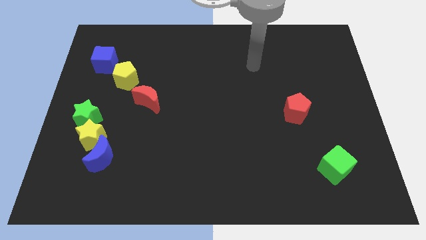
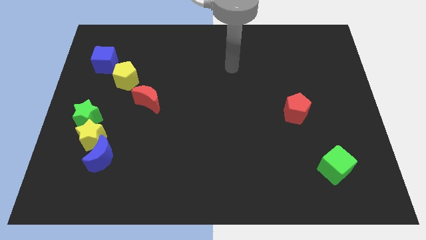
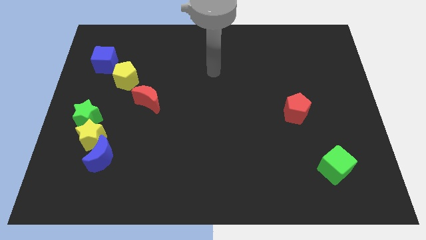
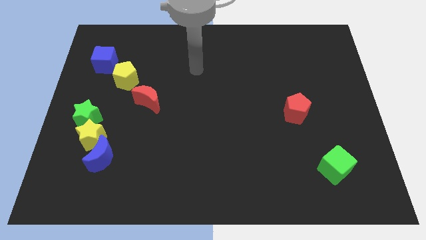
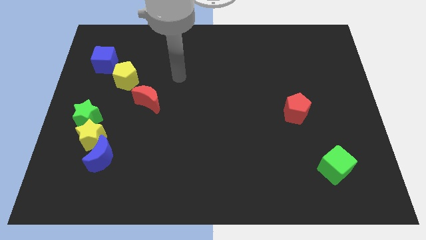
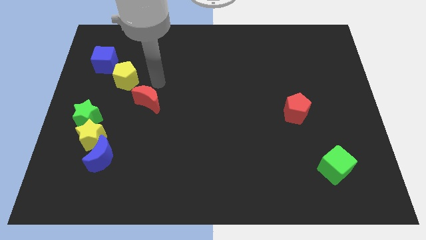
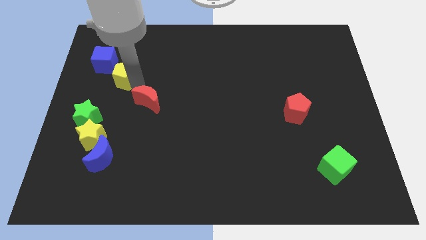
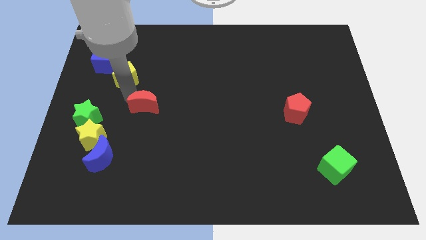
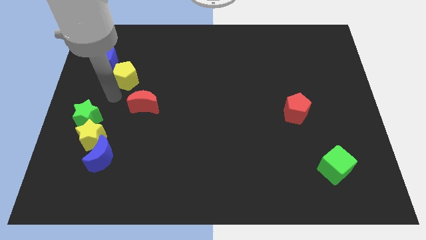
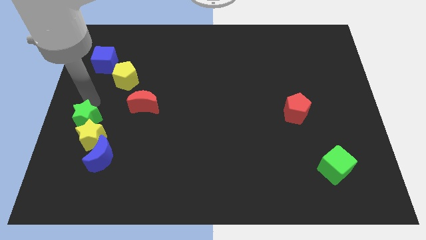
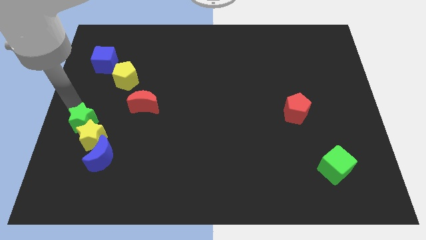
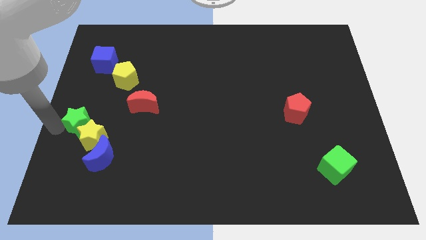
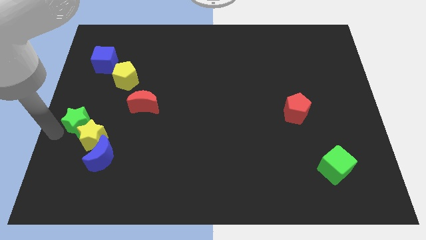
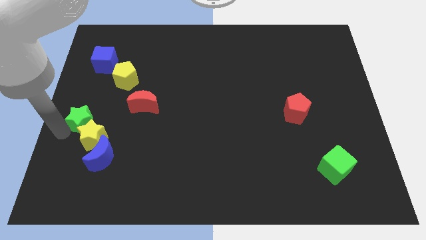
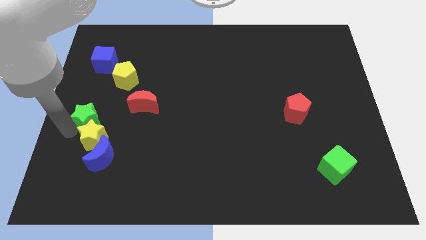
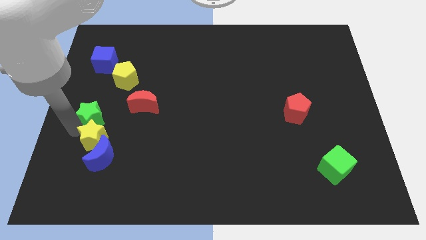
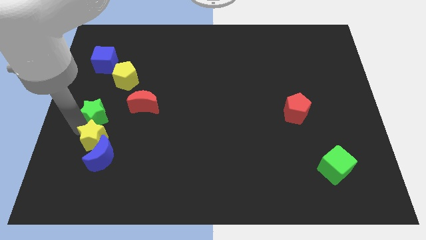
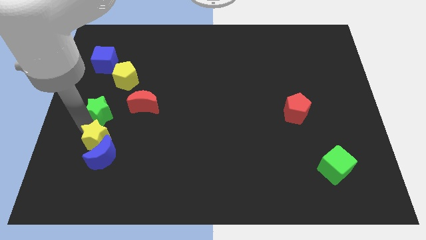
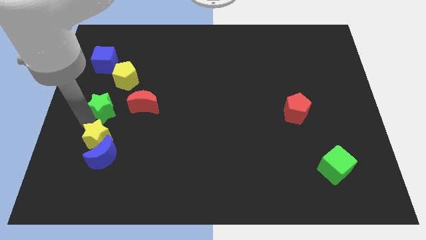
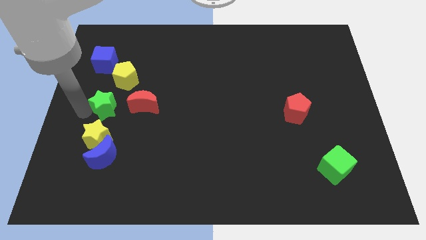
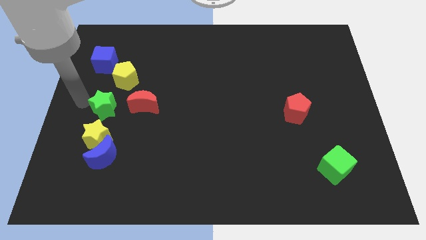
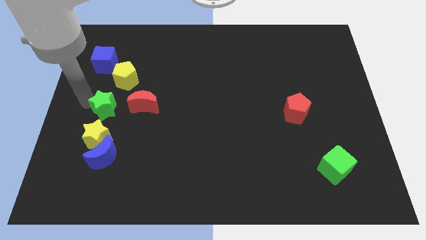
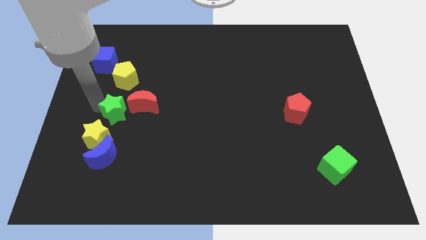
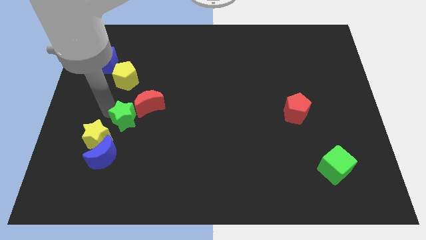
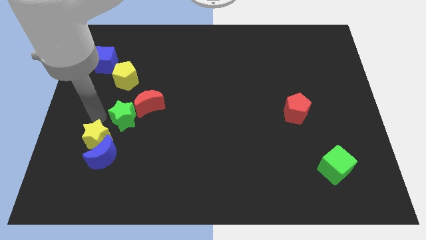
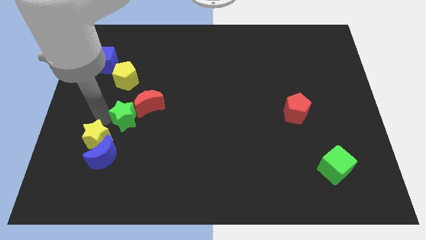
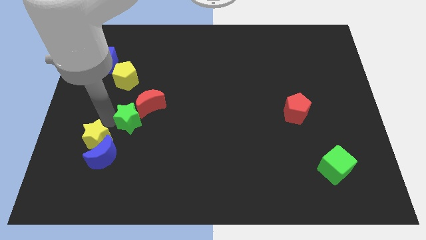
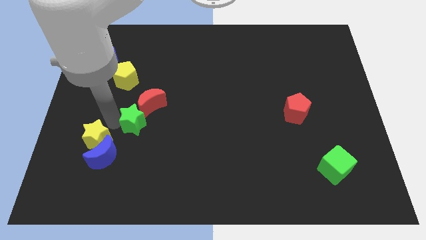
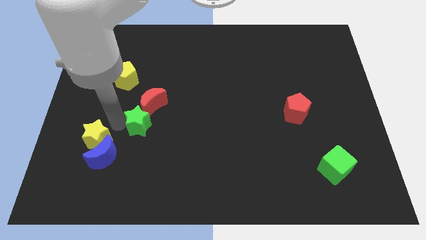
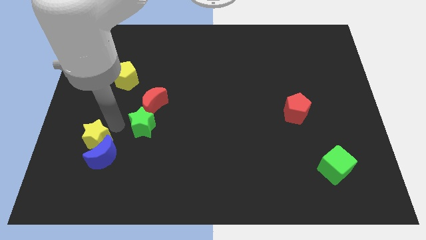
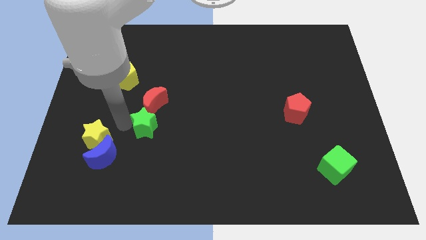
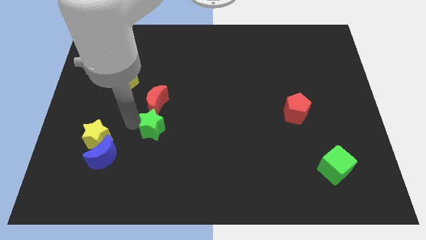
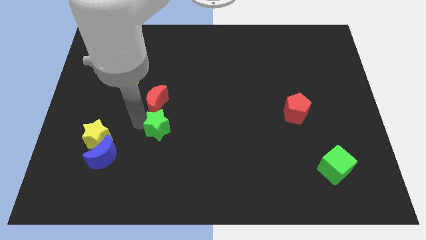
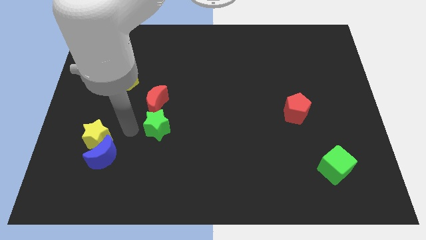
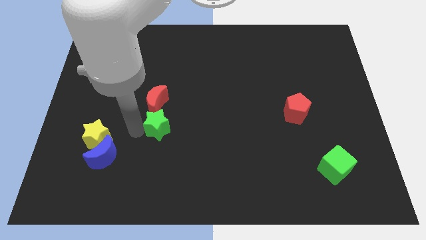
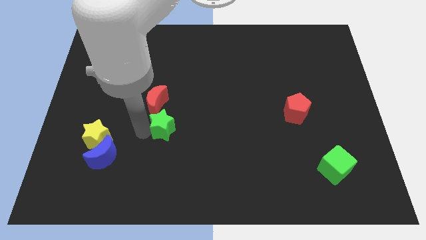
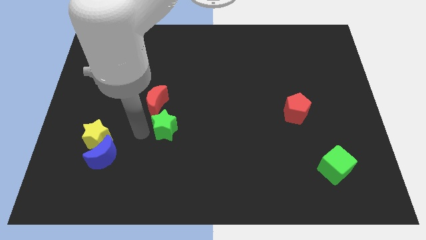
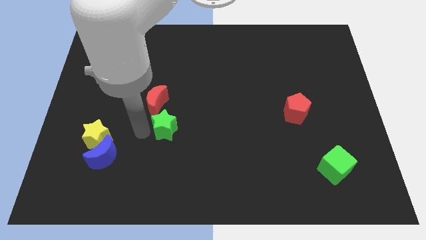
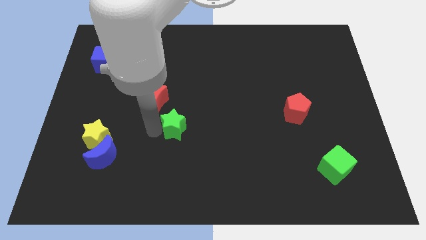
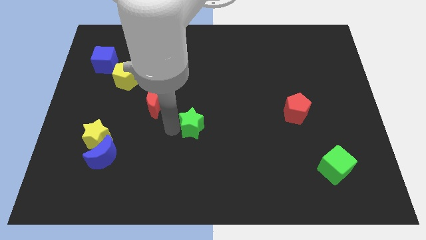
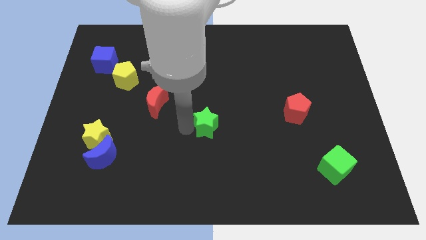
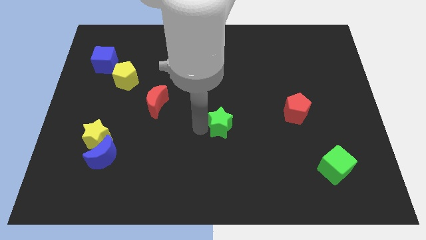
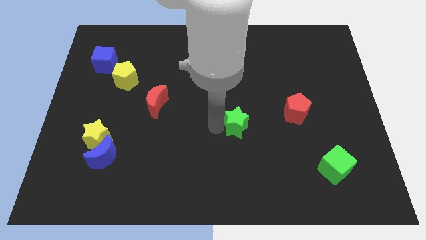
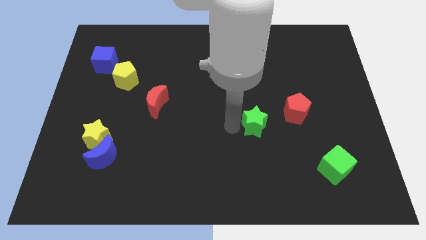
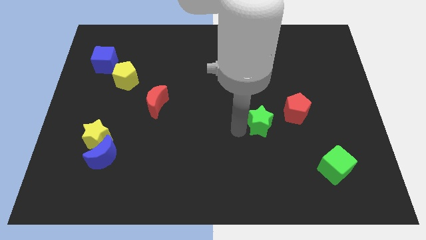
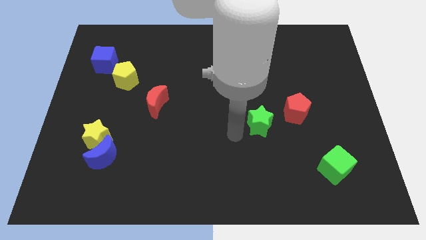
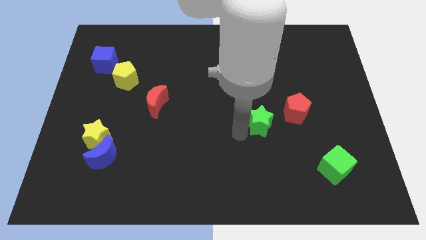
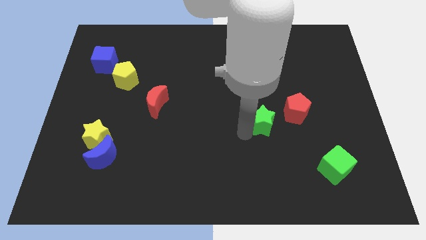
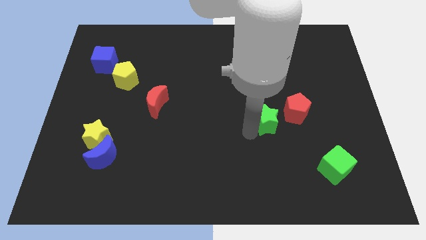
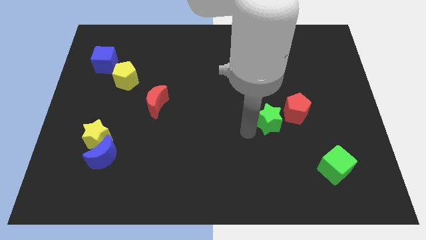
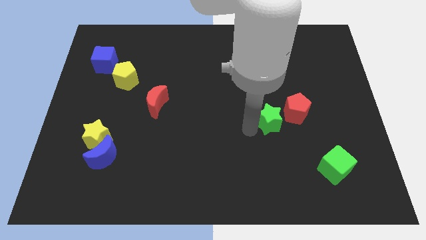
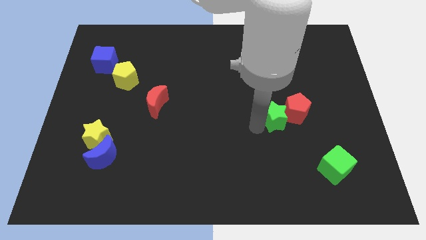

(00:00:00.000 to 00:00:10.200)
put the green star to the red pentagon

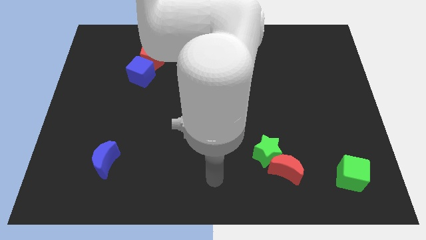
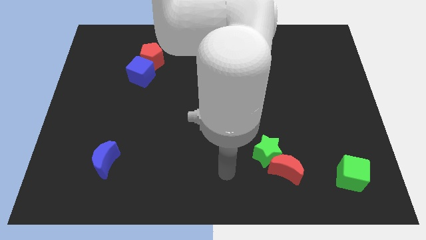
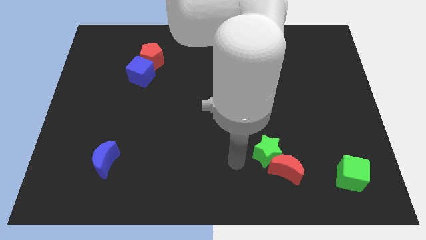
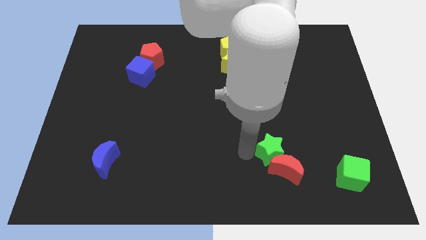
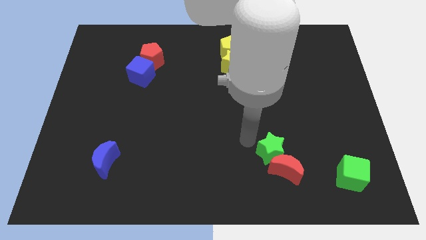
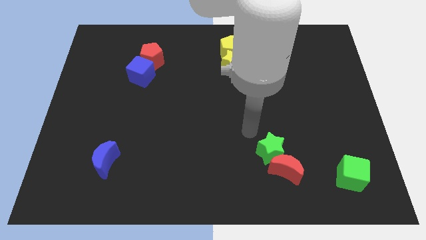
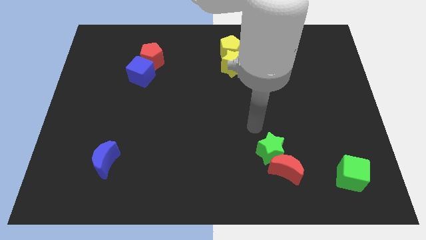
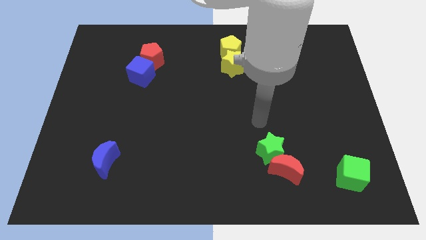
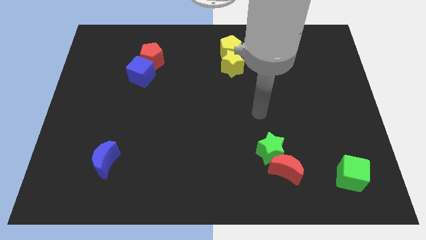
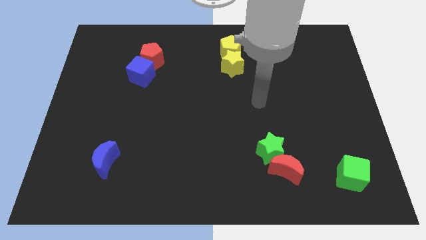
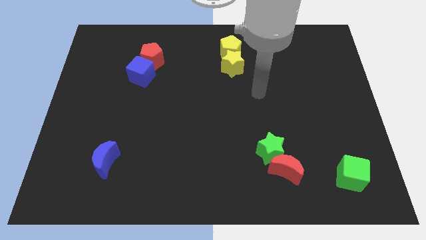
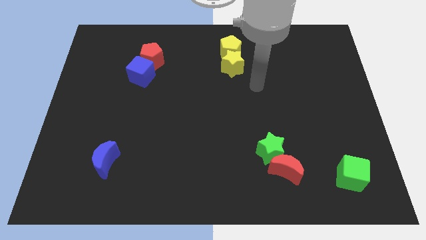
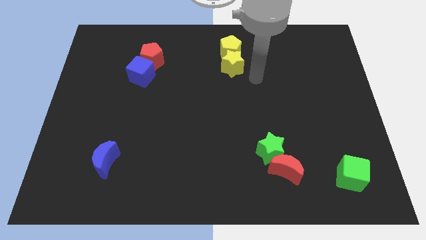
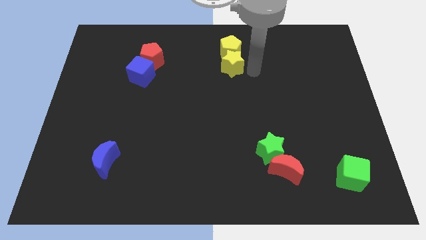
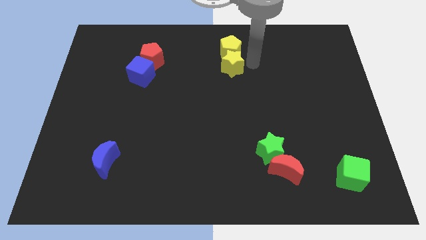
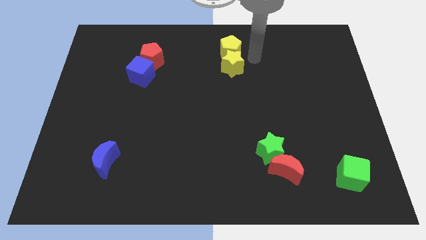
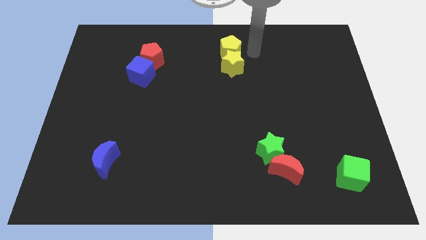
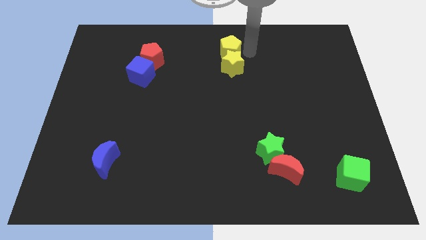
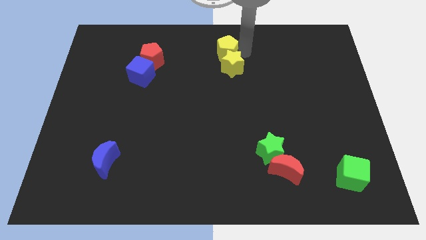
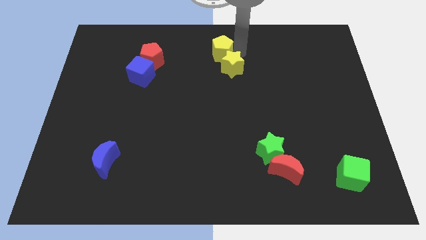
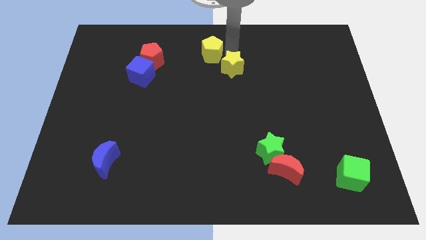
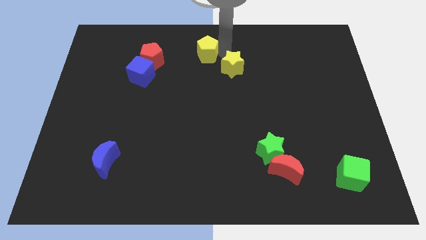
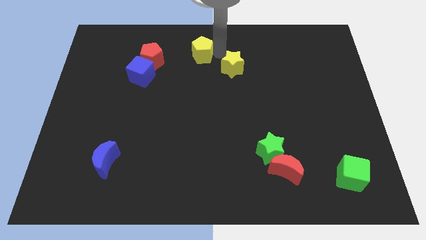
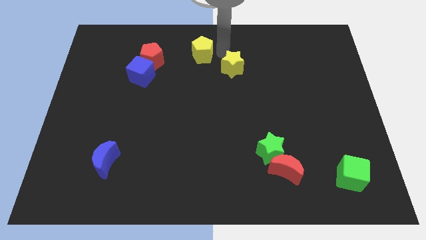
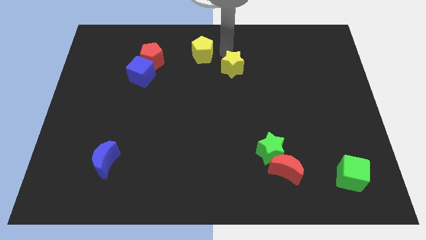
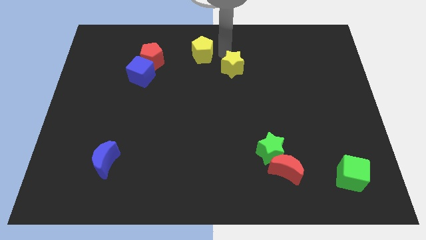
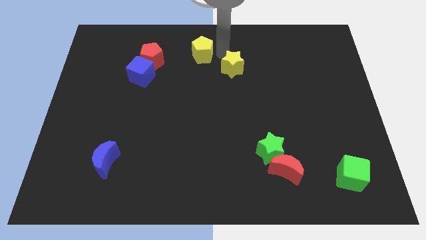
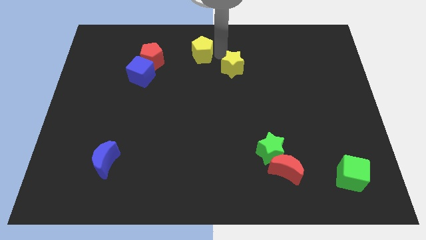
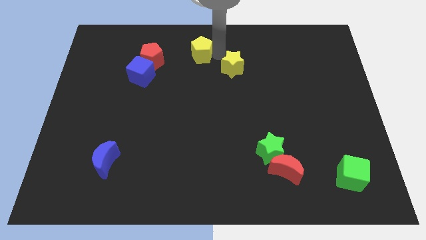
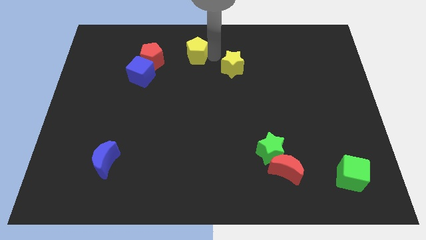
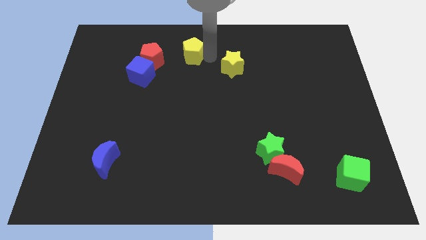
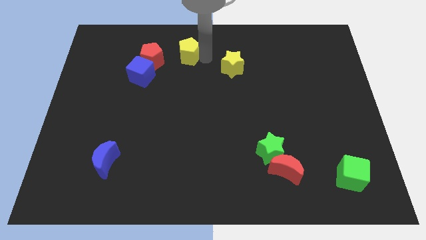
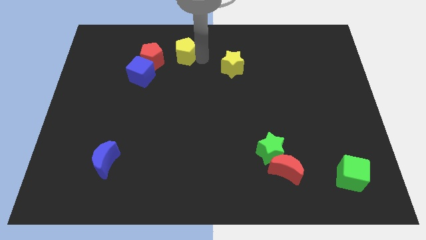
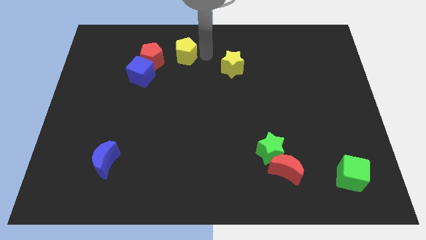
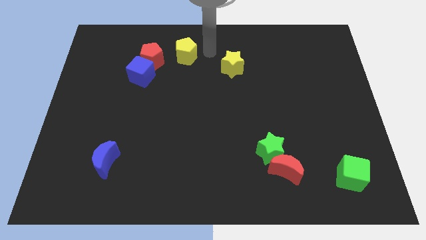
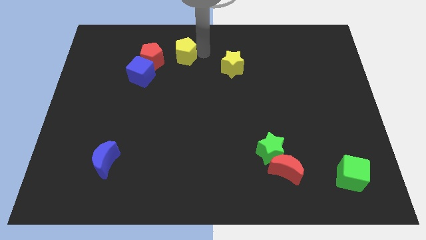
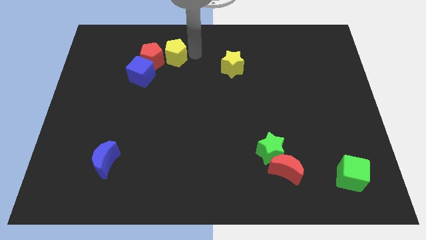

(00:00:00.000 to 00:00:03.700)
move the yellow pentagon close to the red pentagon
